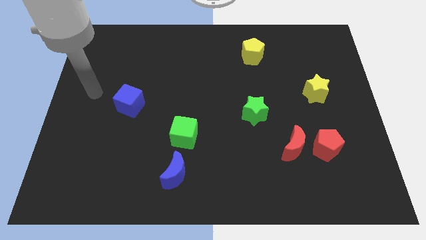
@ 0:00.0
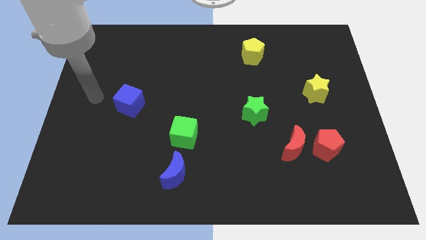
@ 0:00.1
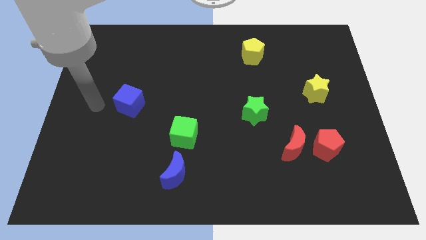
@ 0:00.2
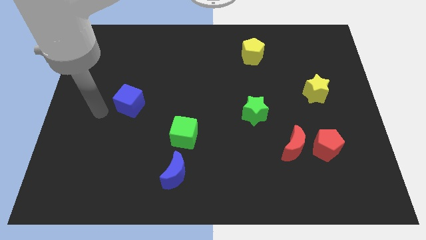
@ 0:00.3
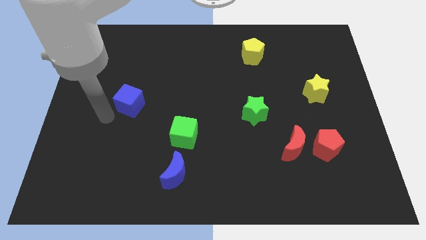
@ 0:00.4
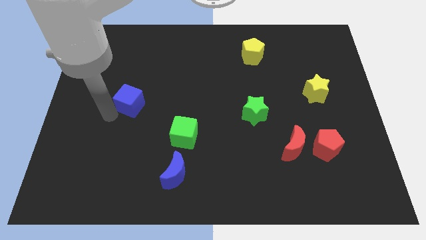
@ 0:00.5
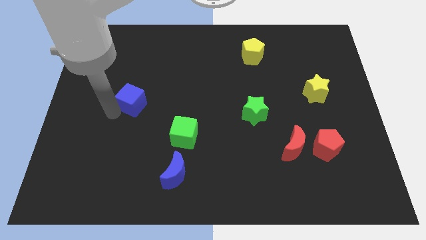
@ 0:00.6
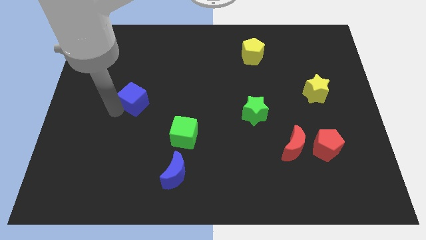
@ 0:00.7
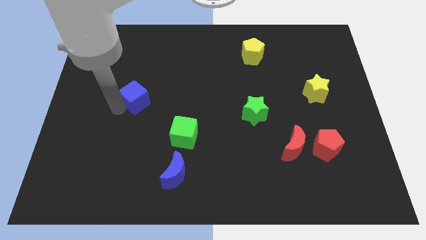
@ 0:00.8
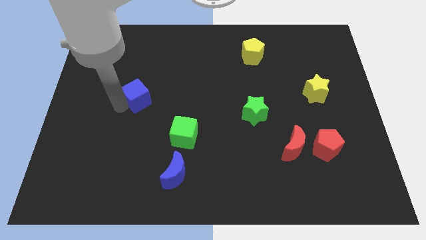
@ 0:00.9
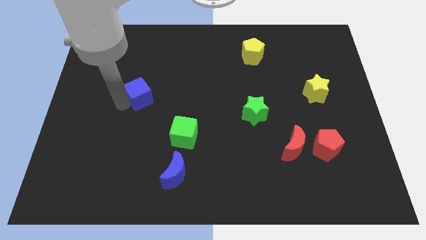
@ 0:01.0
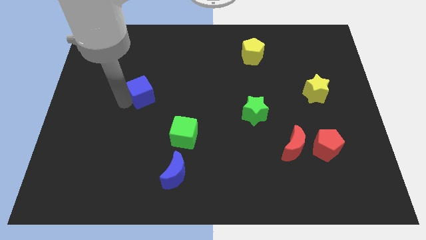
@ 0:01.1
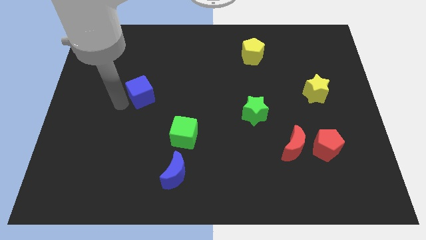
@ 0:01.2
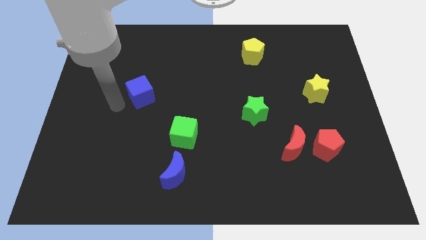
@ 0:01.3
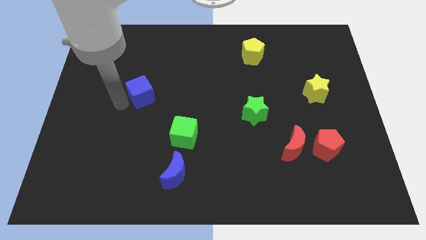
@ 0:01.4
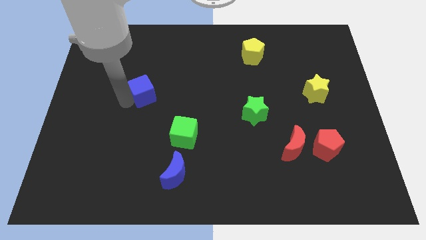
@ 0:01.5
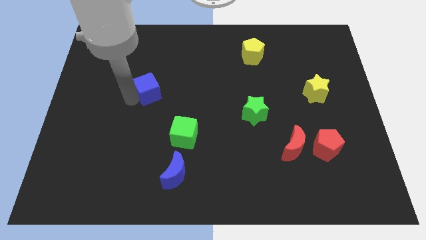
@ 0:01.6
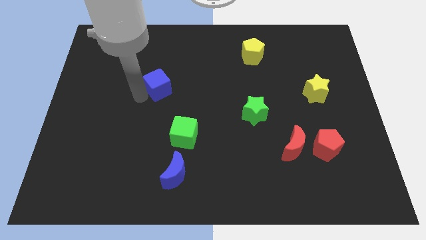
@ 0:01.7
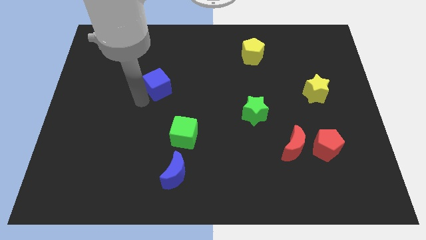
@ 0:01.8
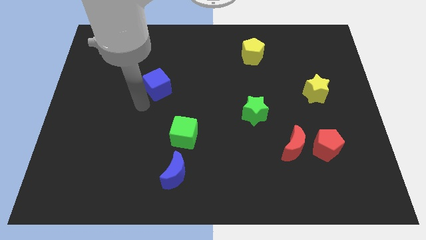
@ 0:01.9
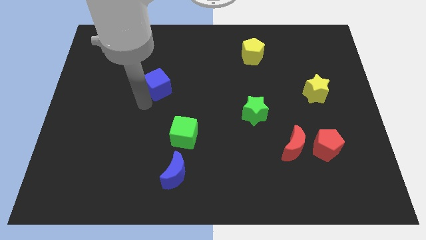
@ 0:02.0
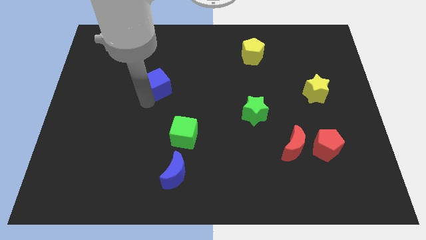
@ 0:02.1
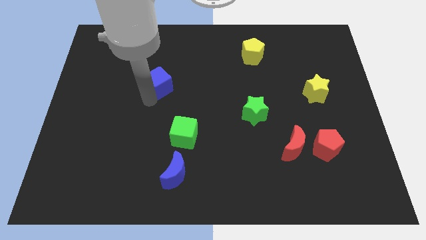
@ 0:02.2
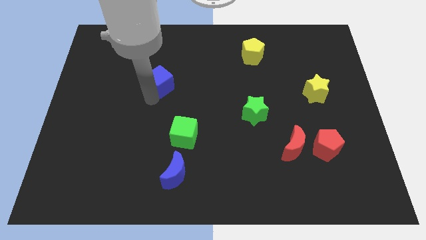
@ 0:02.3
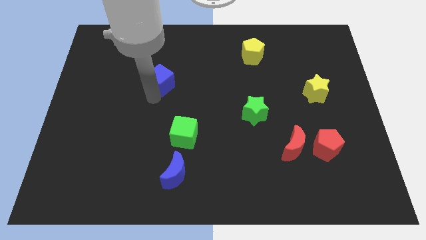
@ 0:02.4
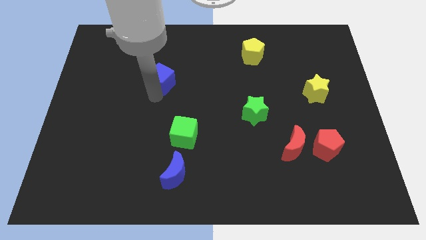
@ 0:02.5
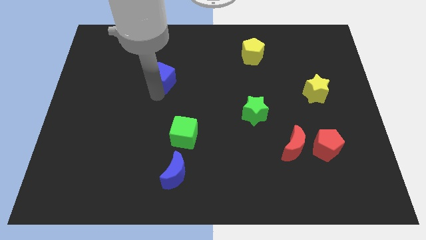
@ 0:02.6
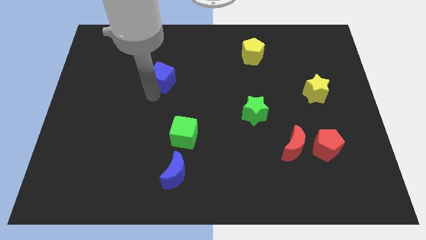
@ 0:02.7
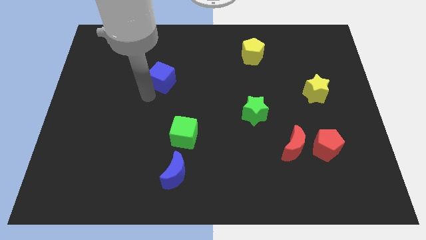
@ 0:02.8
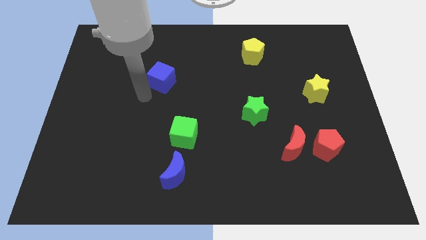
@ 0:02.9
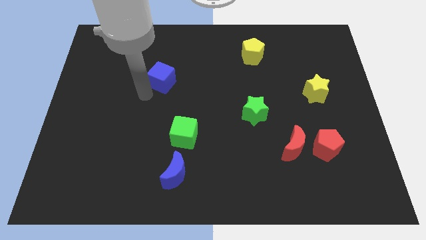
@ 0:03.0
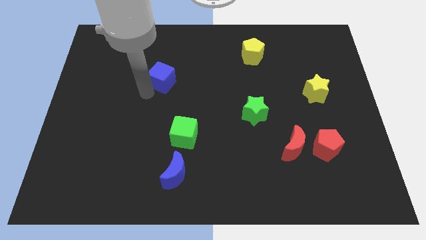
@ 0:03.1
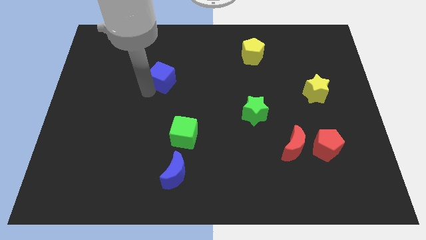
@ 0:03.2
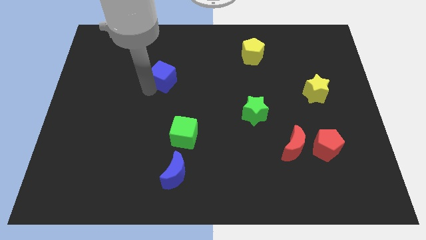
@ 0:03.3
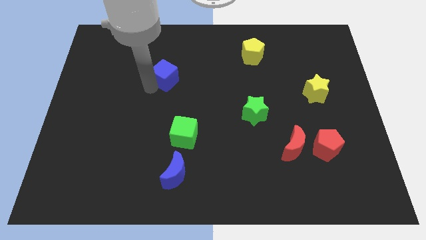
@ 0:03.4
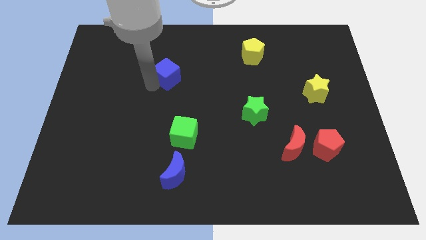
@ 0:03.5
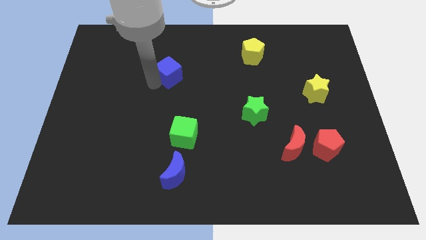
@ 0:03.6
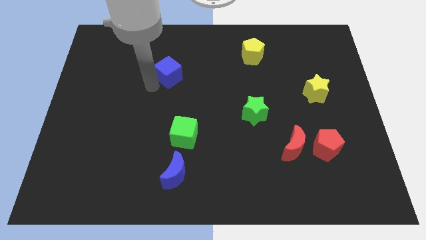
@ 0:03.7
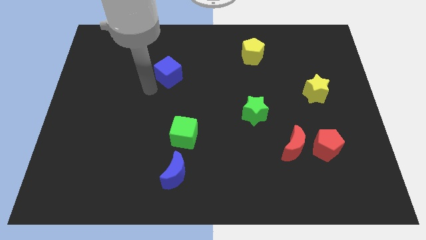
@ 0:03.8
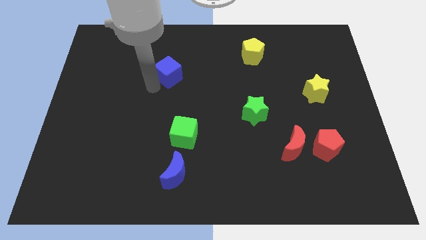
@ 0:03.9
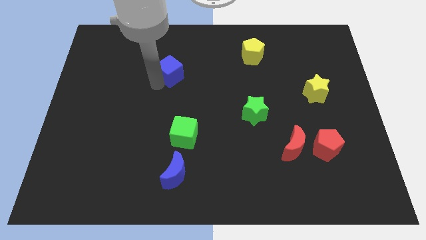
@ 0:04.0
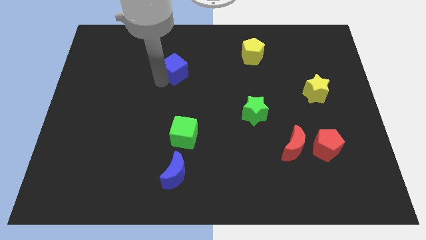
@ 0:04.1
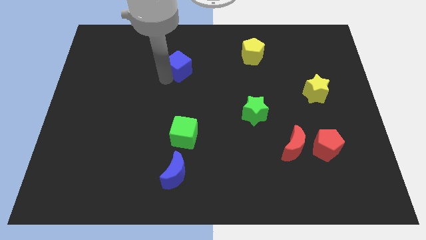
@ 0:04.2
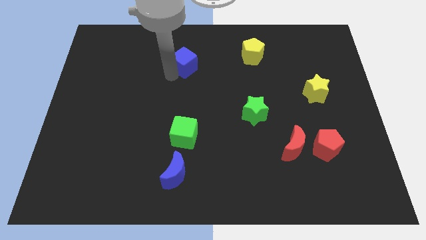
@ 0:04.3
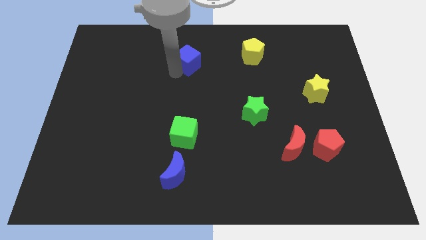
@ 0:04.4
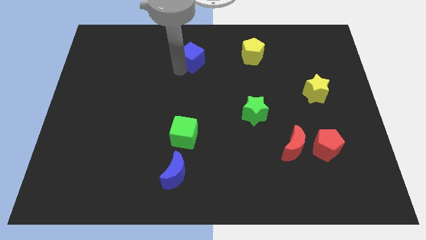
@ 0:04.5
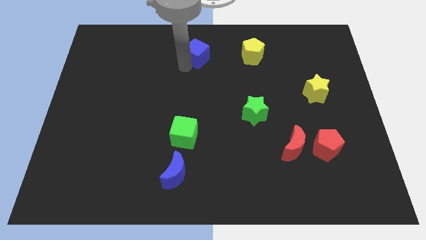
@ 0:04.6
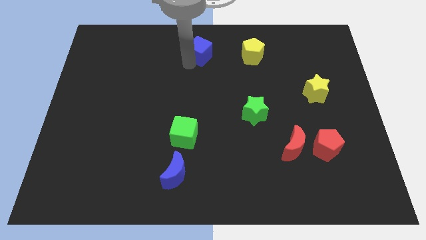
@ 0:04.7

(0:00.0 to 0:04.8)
slide the blue cube to the top

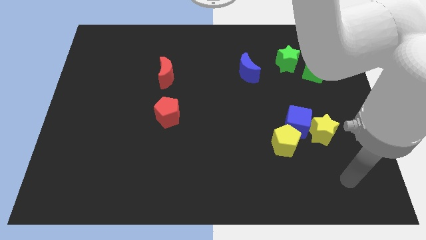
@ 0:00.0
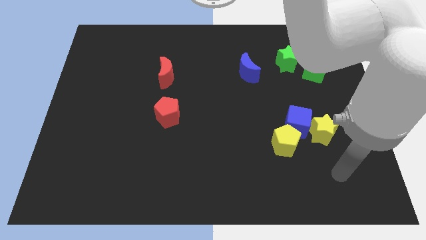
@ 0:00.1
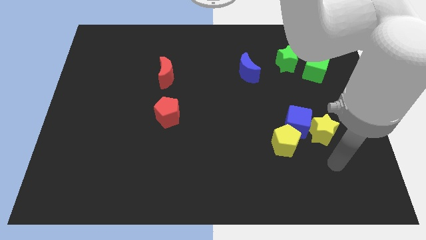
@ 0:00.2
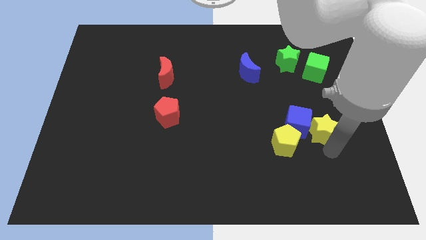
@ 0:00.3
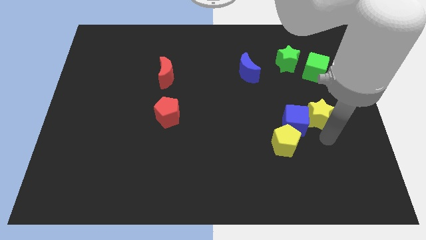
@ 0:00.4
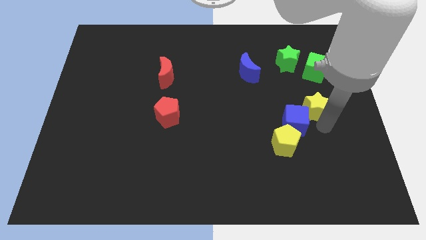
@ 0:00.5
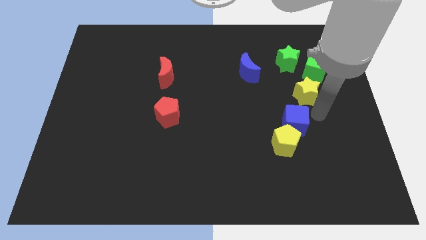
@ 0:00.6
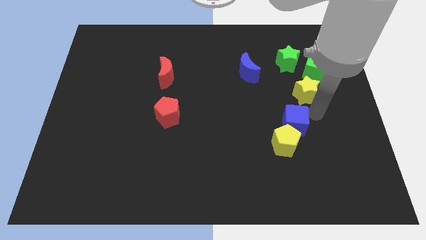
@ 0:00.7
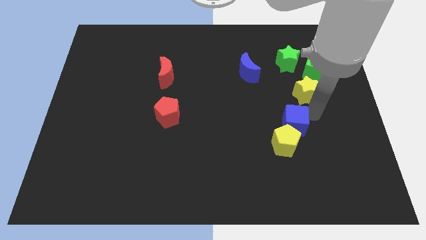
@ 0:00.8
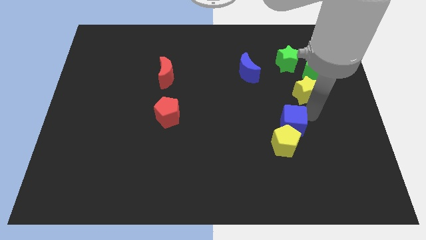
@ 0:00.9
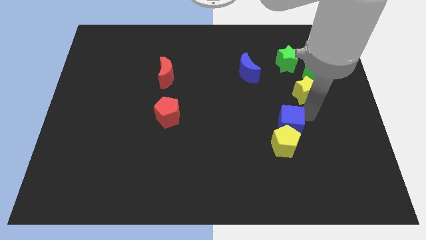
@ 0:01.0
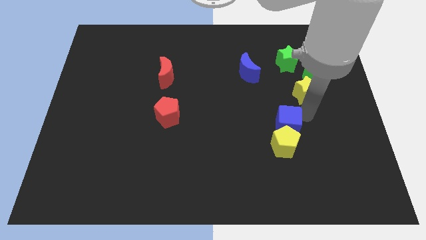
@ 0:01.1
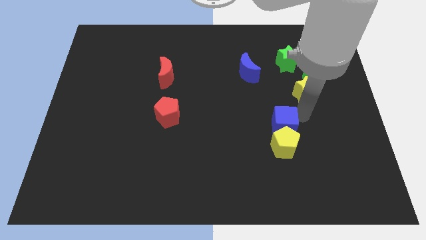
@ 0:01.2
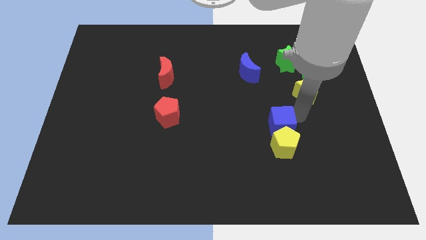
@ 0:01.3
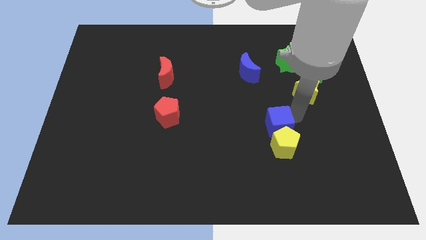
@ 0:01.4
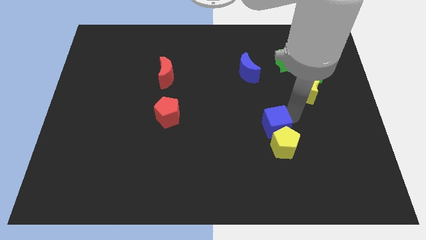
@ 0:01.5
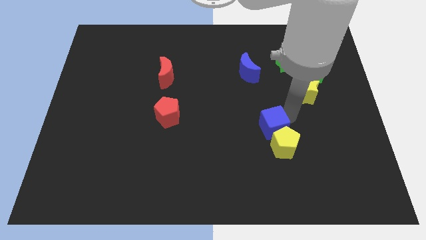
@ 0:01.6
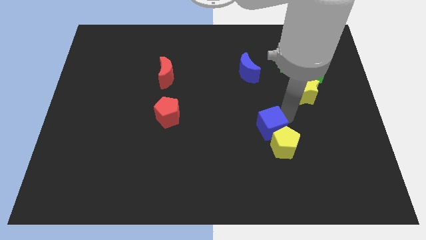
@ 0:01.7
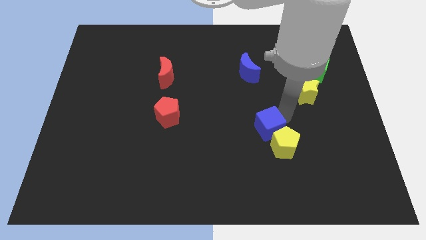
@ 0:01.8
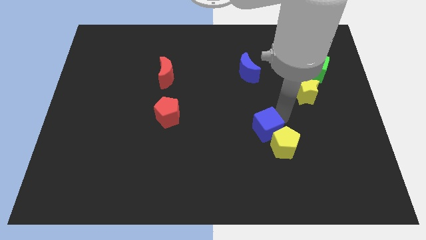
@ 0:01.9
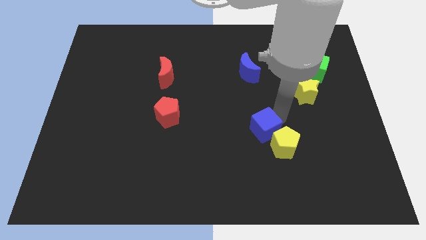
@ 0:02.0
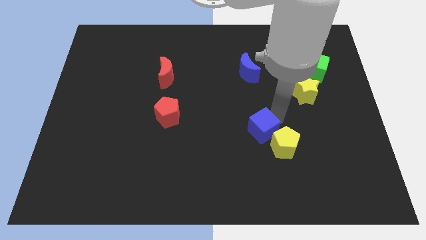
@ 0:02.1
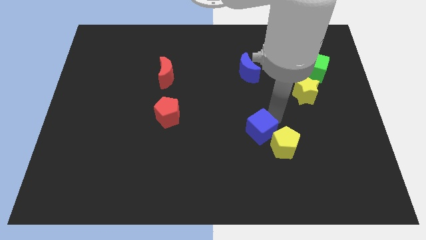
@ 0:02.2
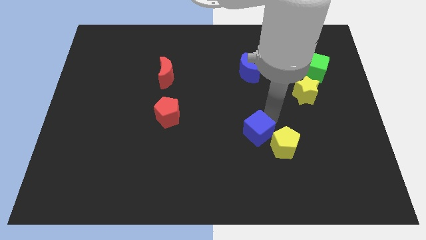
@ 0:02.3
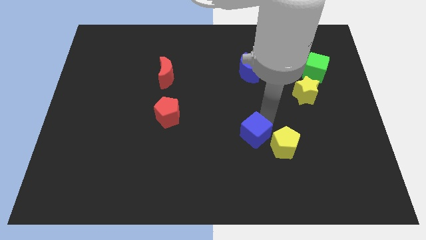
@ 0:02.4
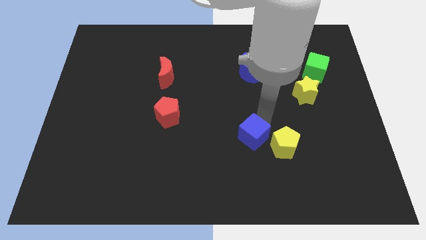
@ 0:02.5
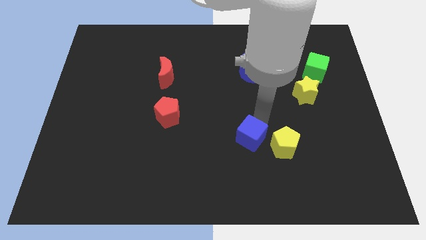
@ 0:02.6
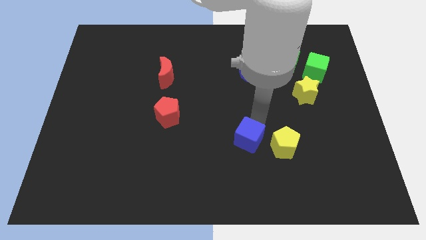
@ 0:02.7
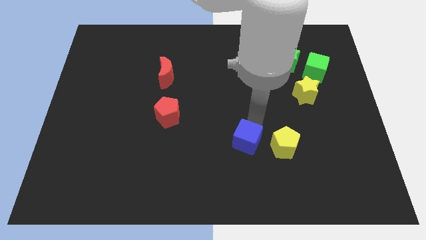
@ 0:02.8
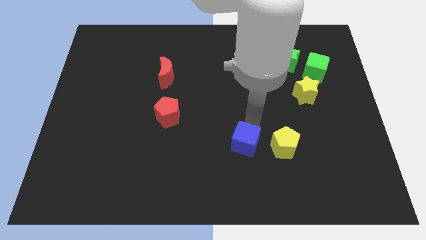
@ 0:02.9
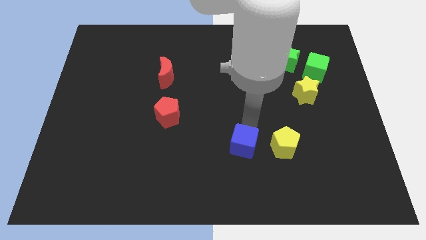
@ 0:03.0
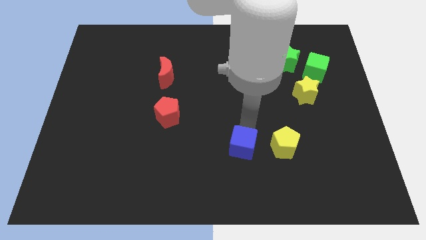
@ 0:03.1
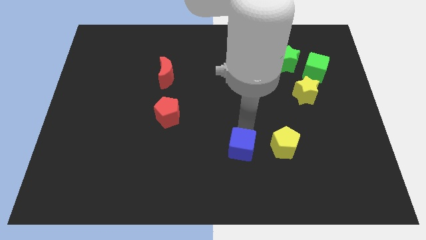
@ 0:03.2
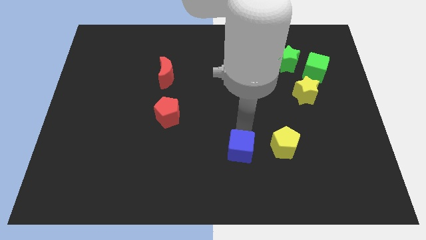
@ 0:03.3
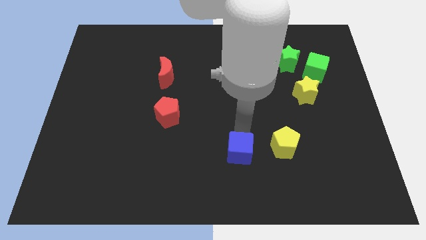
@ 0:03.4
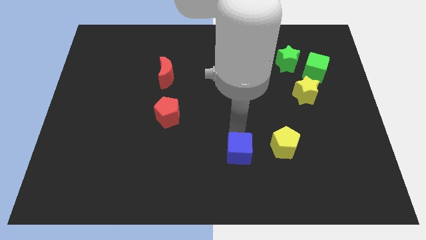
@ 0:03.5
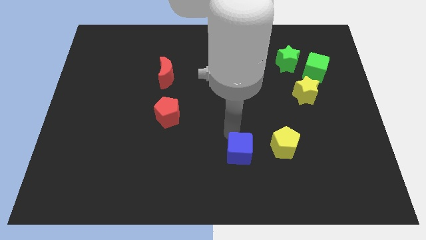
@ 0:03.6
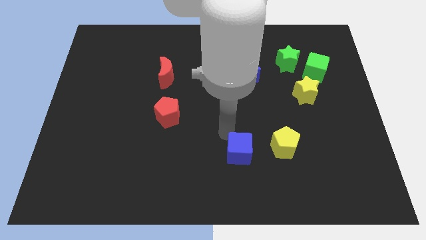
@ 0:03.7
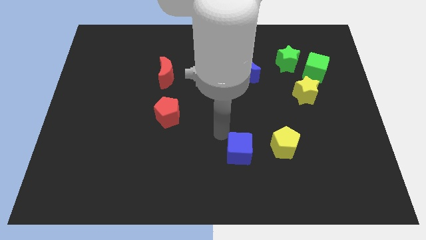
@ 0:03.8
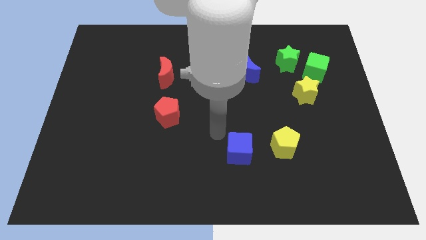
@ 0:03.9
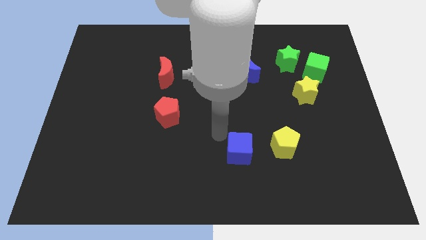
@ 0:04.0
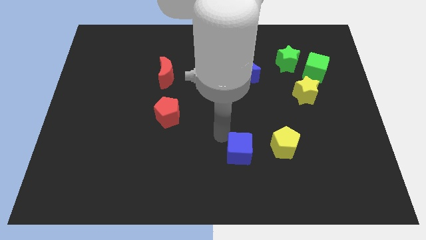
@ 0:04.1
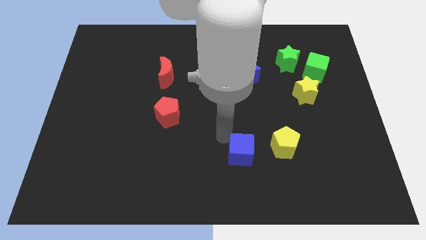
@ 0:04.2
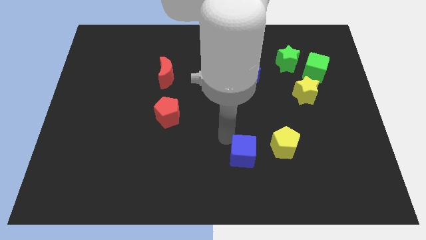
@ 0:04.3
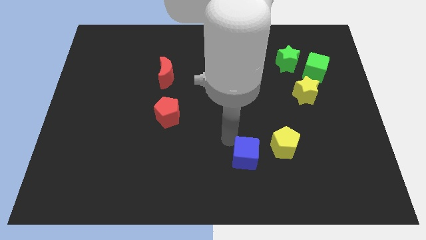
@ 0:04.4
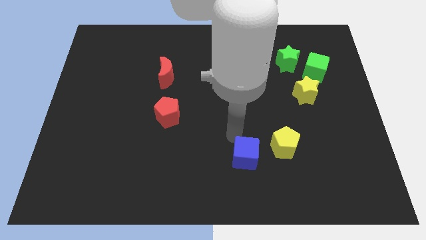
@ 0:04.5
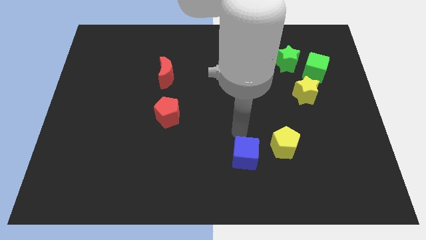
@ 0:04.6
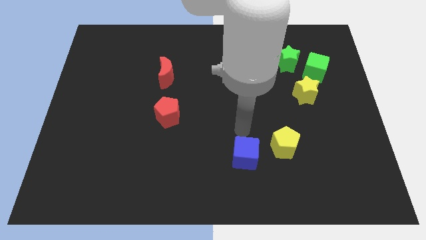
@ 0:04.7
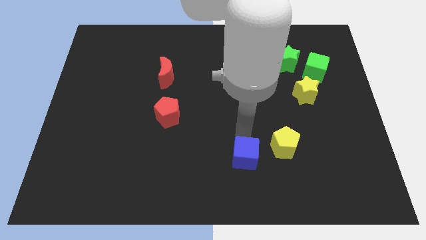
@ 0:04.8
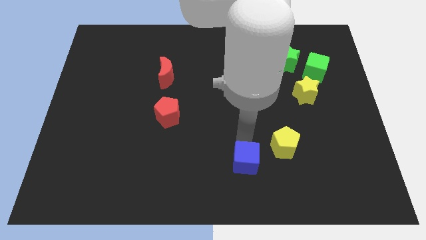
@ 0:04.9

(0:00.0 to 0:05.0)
slide the blue cube to the bottom side
